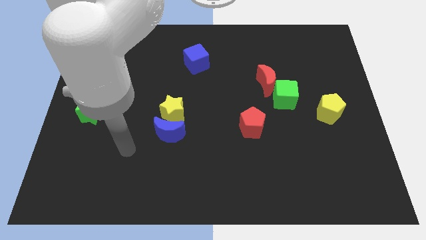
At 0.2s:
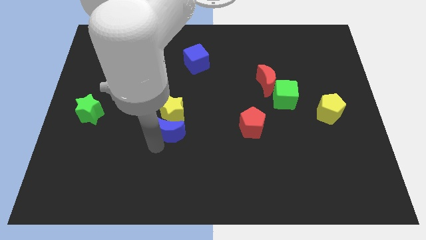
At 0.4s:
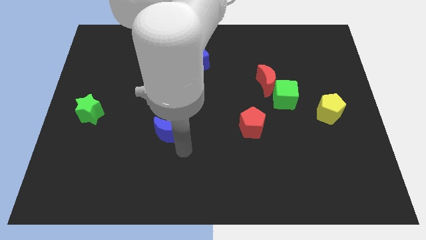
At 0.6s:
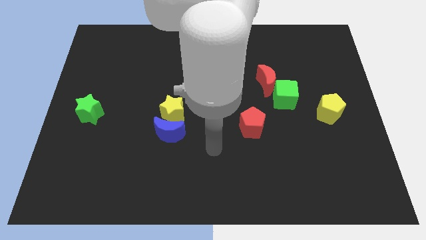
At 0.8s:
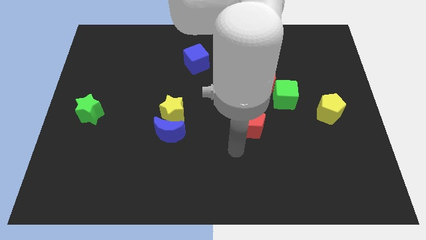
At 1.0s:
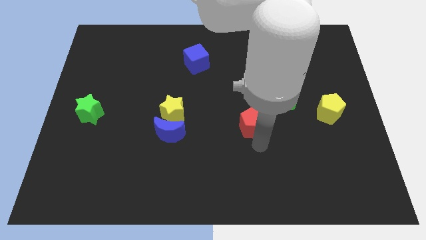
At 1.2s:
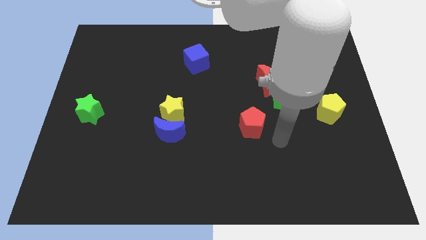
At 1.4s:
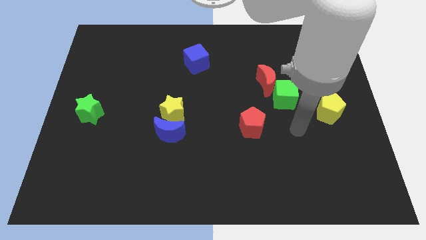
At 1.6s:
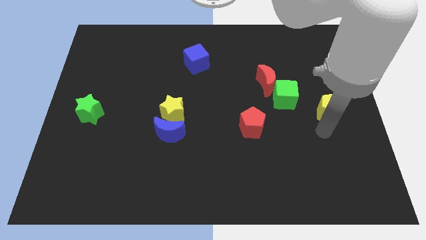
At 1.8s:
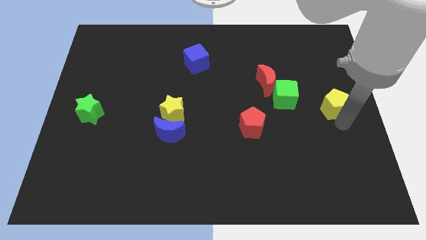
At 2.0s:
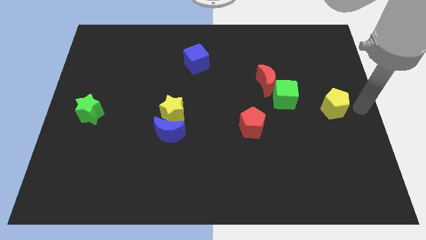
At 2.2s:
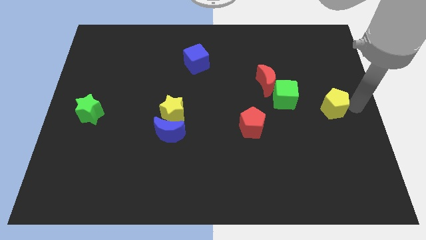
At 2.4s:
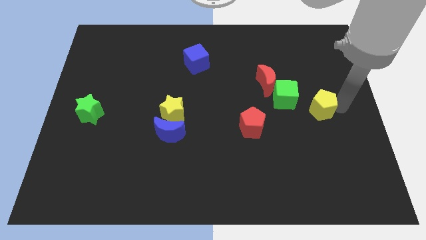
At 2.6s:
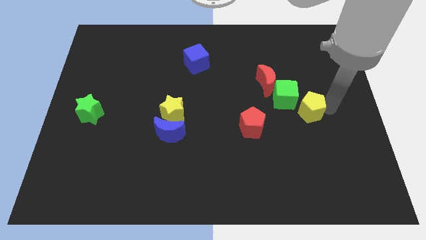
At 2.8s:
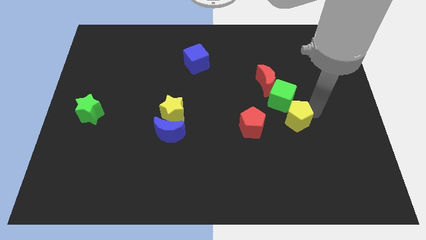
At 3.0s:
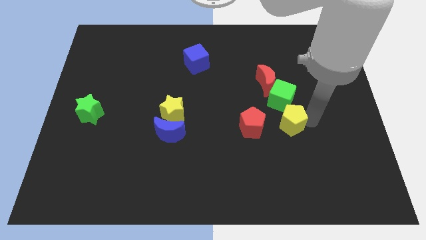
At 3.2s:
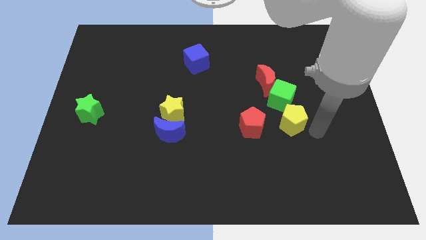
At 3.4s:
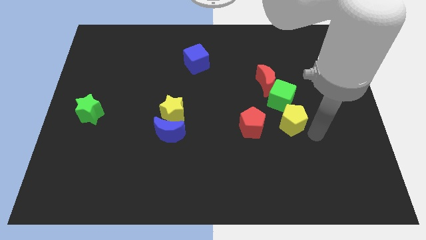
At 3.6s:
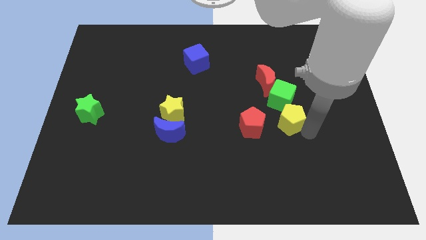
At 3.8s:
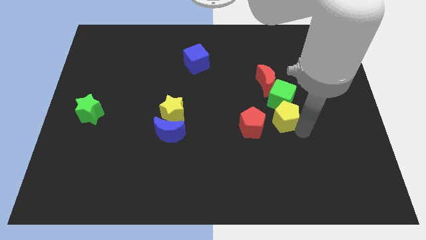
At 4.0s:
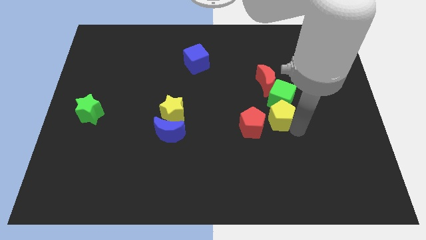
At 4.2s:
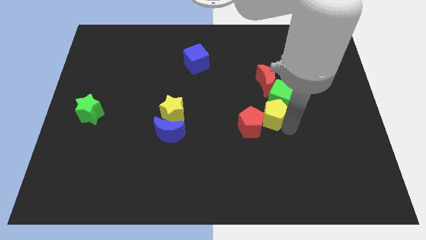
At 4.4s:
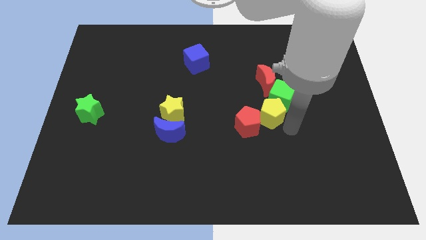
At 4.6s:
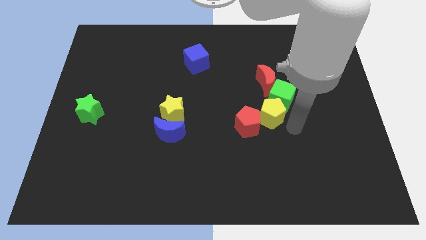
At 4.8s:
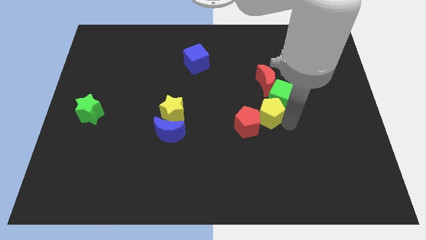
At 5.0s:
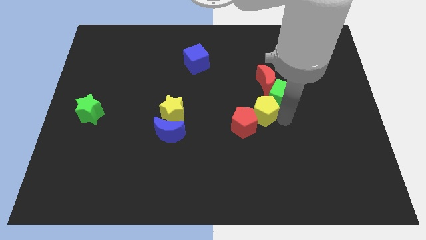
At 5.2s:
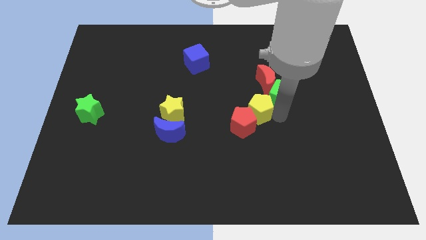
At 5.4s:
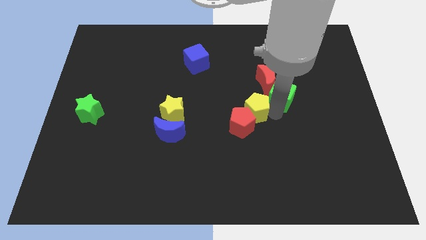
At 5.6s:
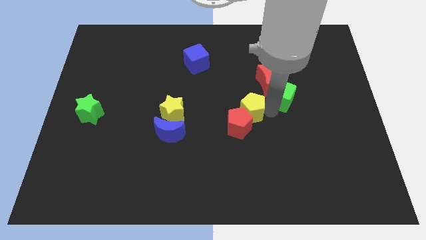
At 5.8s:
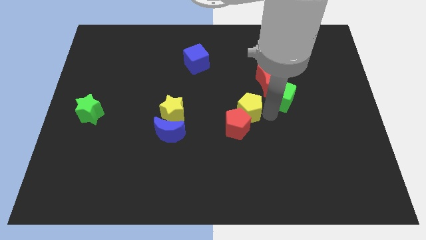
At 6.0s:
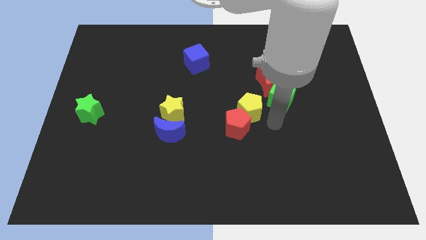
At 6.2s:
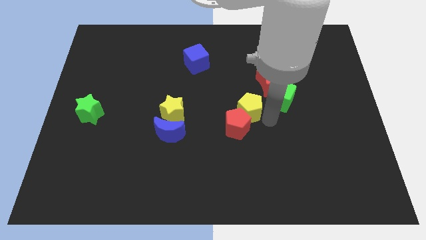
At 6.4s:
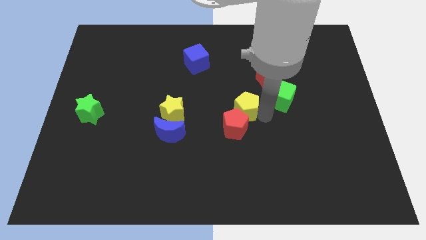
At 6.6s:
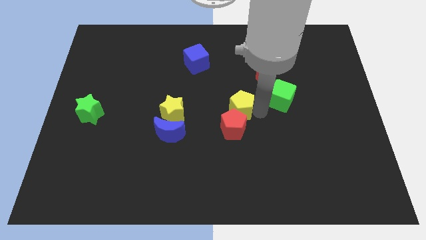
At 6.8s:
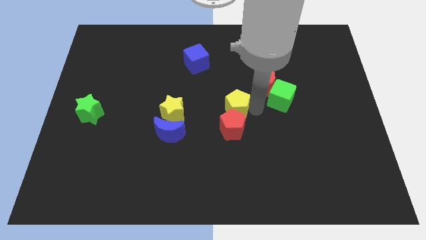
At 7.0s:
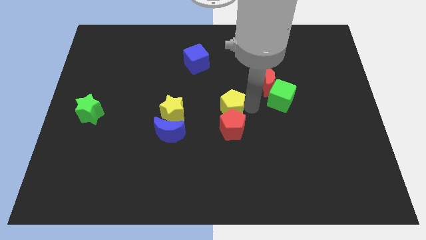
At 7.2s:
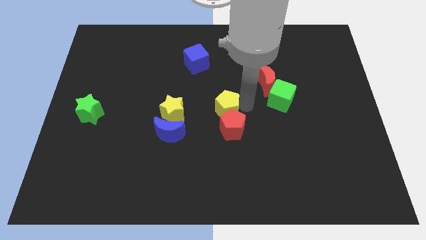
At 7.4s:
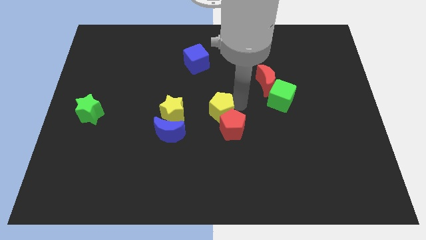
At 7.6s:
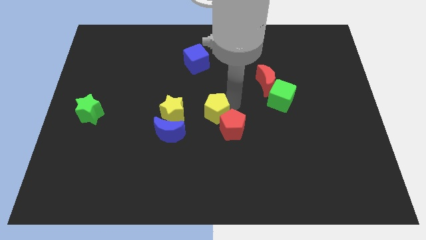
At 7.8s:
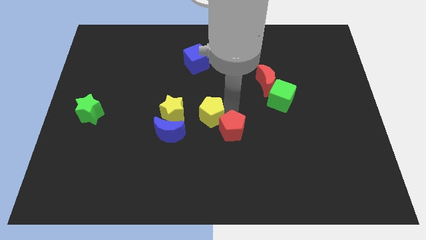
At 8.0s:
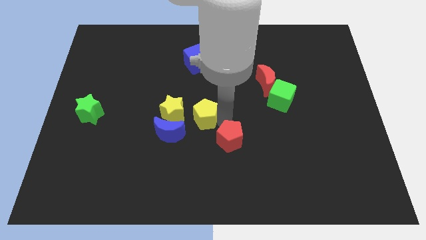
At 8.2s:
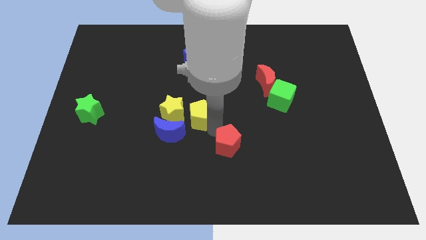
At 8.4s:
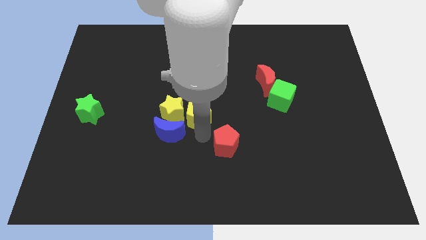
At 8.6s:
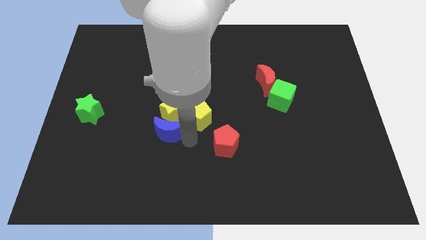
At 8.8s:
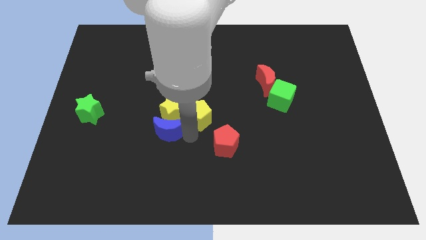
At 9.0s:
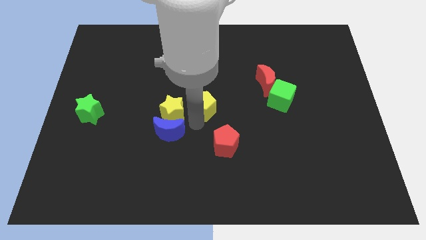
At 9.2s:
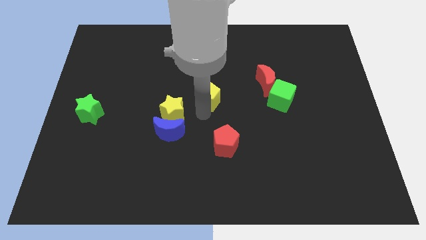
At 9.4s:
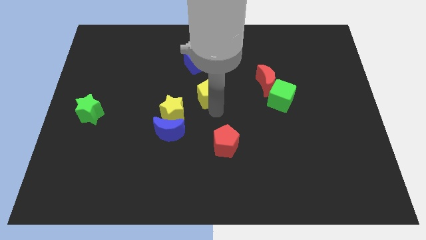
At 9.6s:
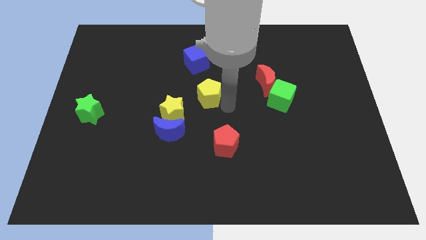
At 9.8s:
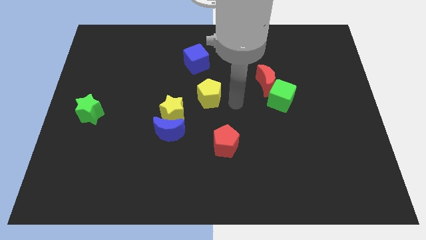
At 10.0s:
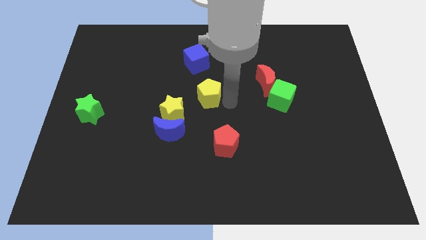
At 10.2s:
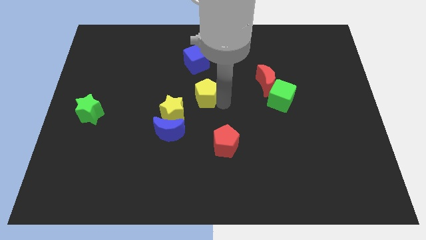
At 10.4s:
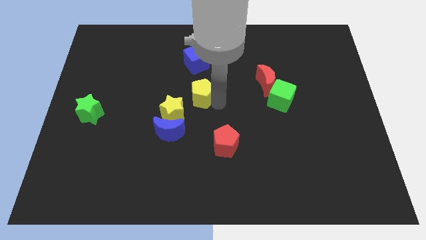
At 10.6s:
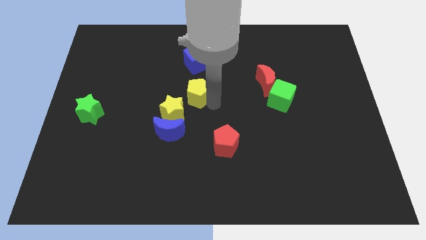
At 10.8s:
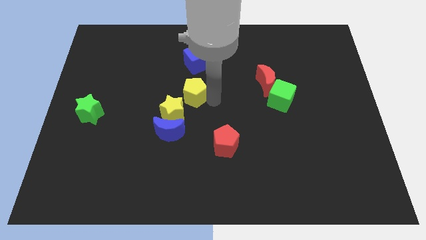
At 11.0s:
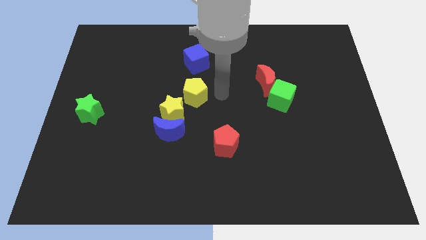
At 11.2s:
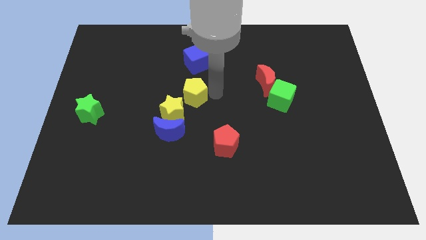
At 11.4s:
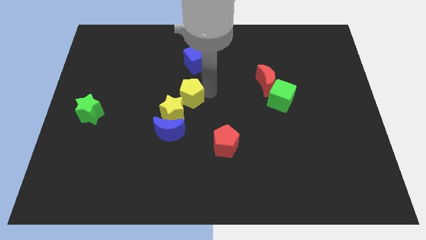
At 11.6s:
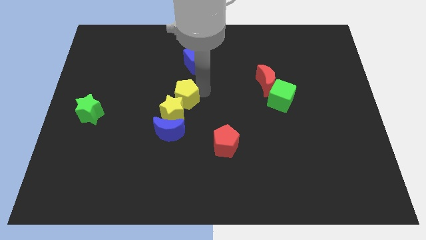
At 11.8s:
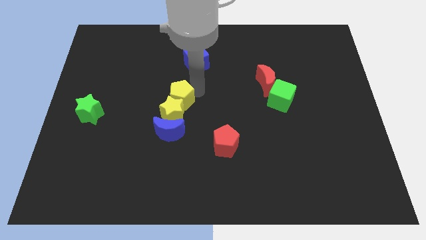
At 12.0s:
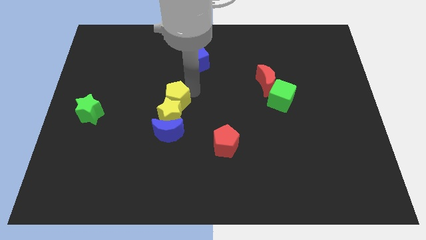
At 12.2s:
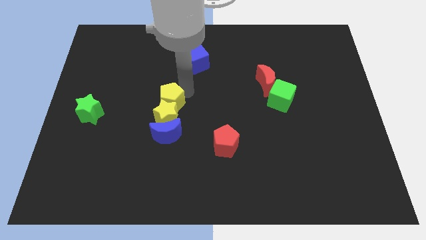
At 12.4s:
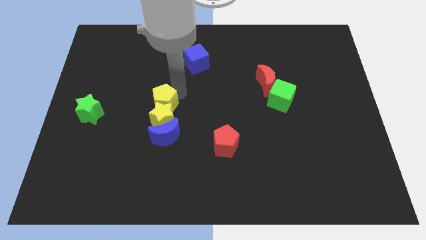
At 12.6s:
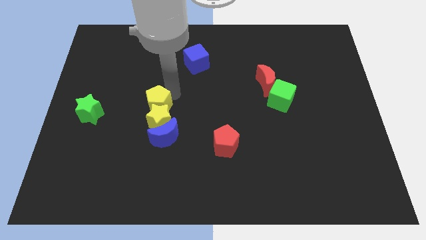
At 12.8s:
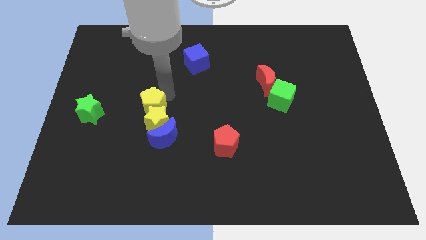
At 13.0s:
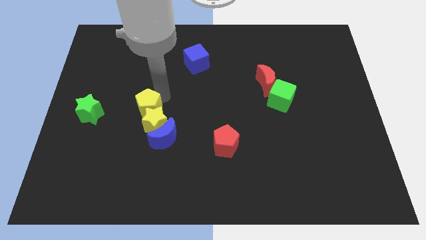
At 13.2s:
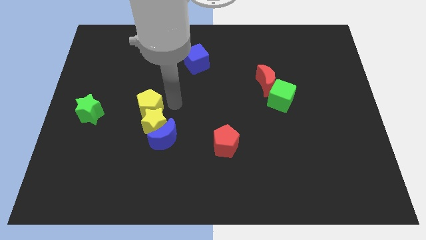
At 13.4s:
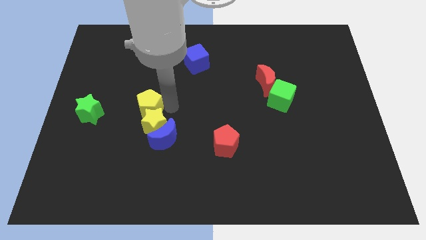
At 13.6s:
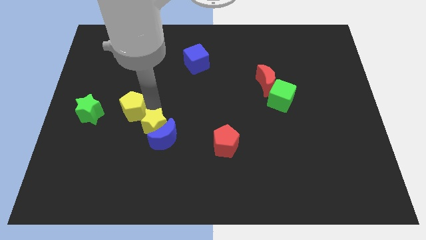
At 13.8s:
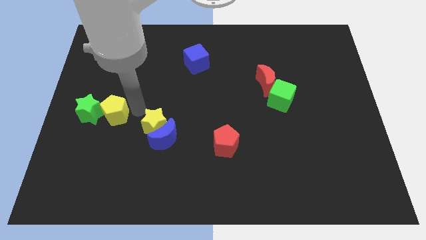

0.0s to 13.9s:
push the yellow pentagon towards the green star
